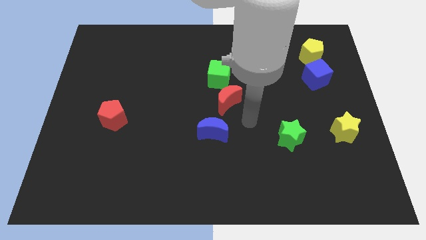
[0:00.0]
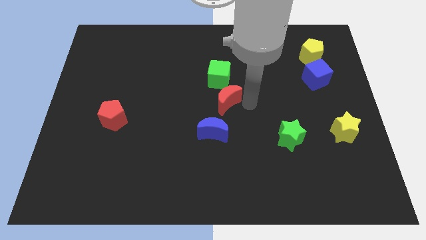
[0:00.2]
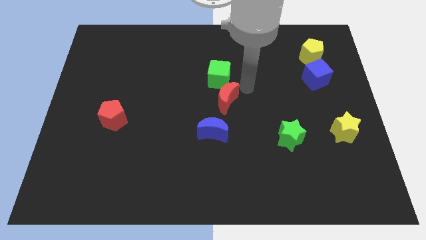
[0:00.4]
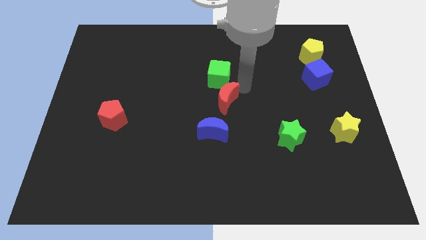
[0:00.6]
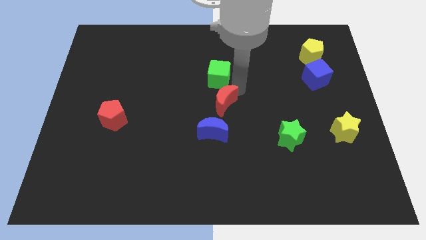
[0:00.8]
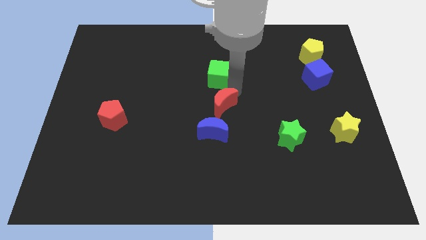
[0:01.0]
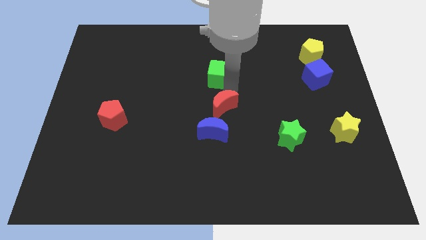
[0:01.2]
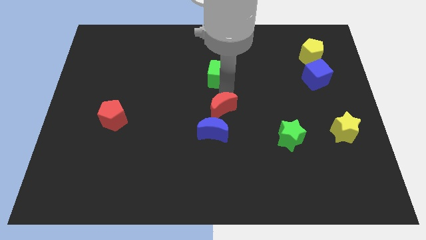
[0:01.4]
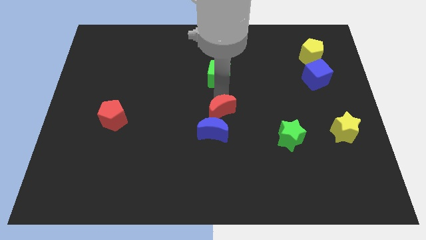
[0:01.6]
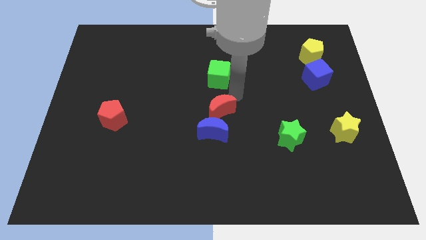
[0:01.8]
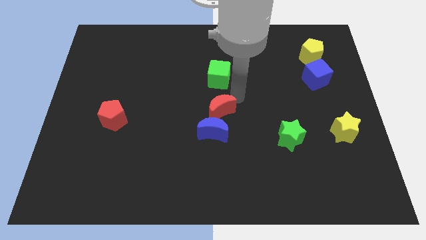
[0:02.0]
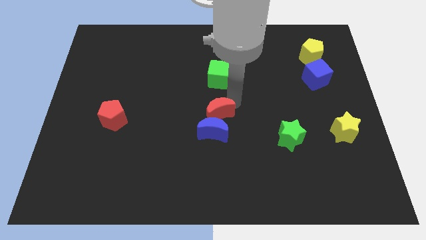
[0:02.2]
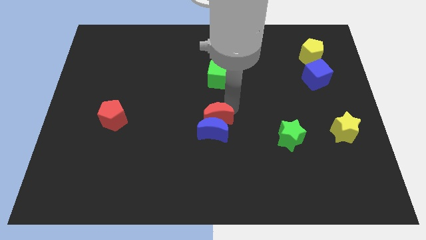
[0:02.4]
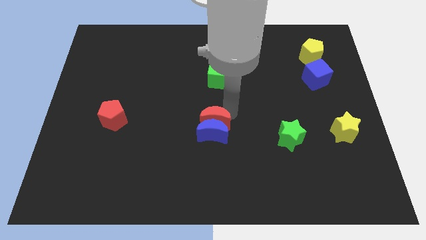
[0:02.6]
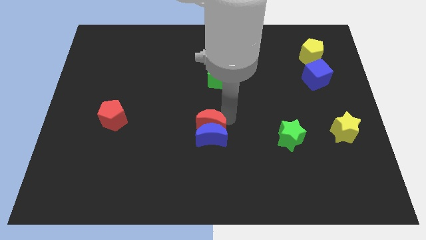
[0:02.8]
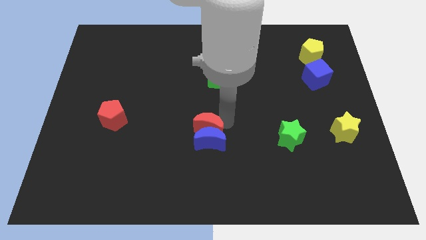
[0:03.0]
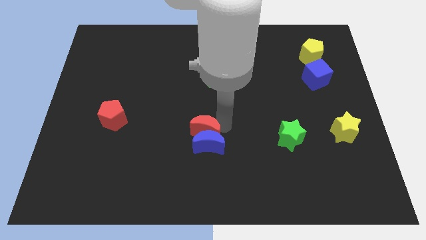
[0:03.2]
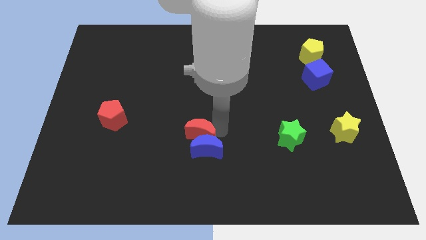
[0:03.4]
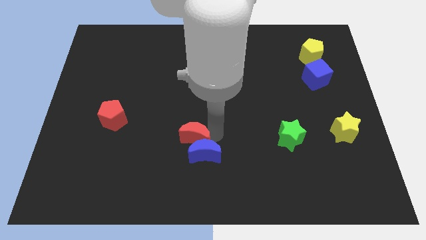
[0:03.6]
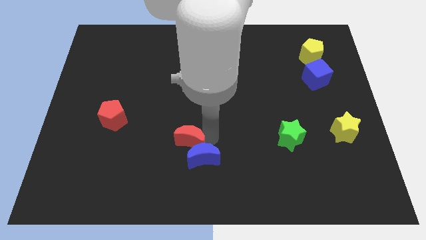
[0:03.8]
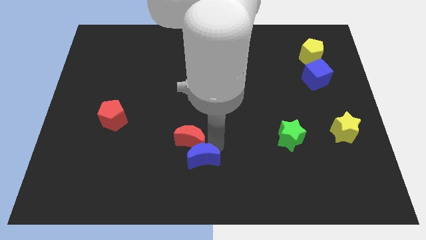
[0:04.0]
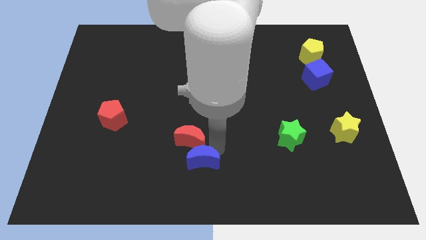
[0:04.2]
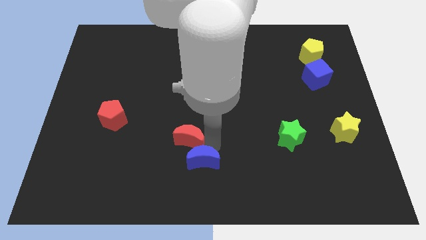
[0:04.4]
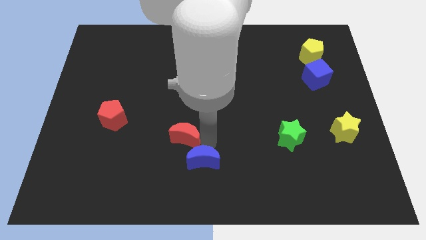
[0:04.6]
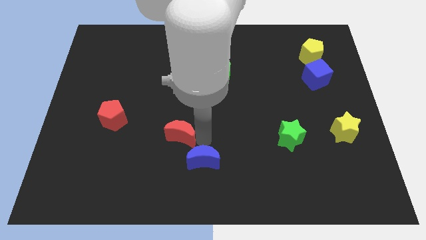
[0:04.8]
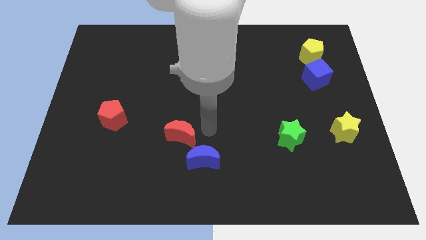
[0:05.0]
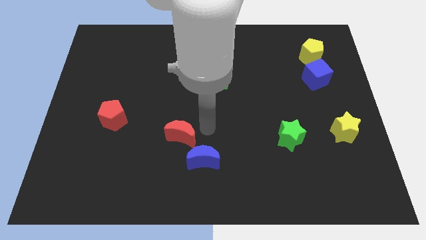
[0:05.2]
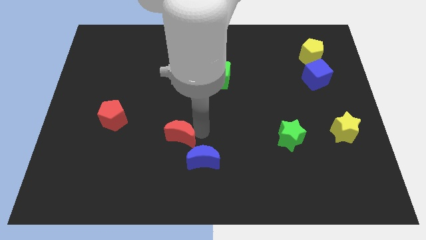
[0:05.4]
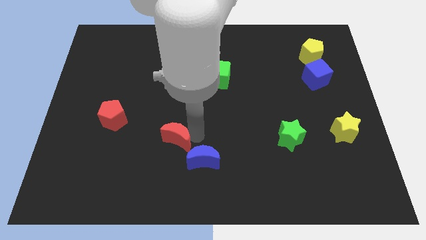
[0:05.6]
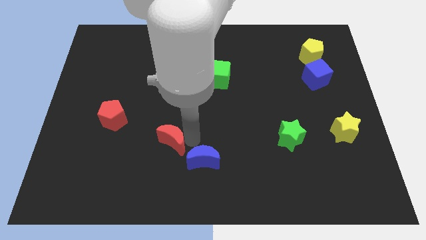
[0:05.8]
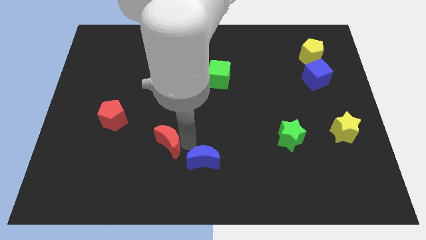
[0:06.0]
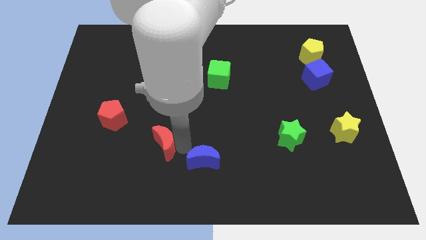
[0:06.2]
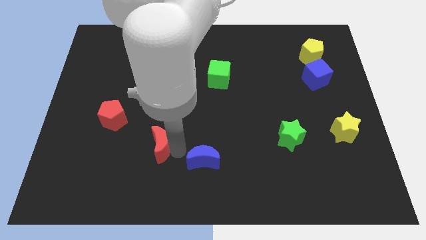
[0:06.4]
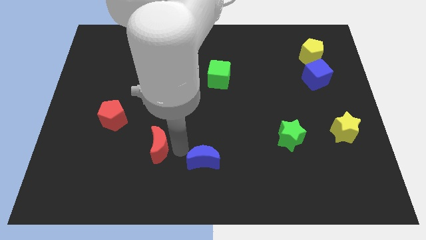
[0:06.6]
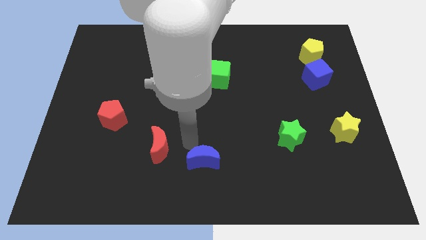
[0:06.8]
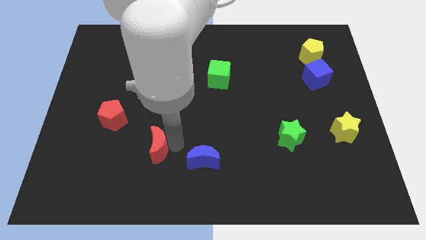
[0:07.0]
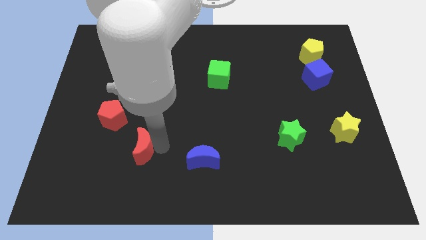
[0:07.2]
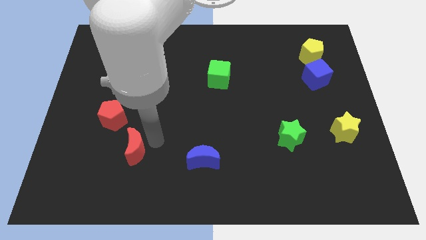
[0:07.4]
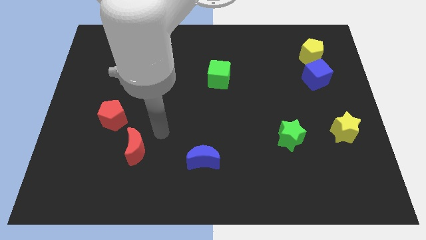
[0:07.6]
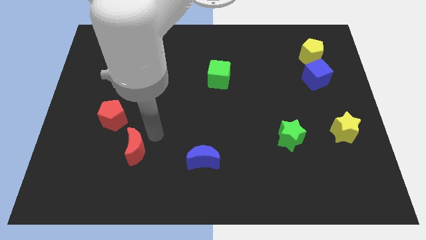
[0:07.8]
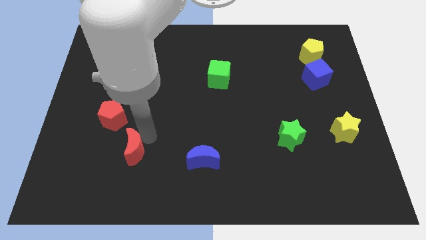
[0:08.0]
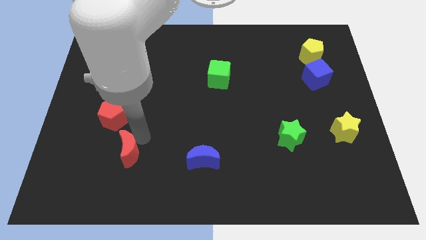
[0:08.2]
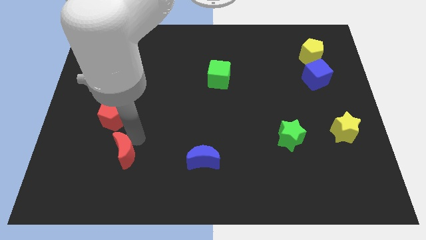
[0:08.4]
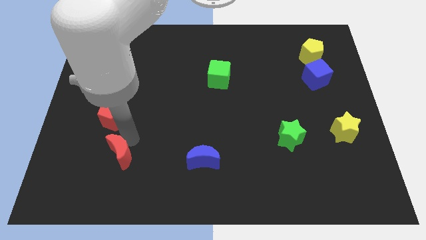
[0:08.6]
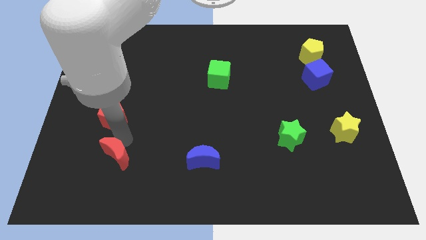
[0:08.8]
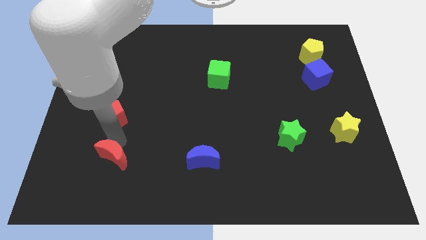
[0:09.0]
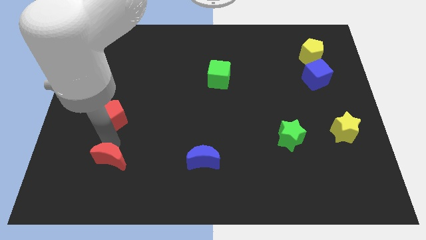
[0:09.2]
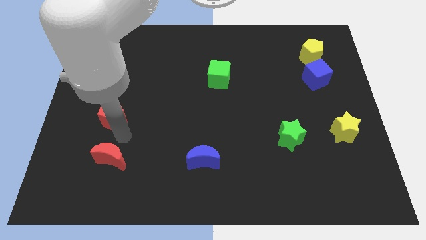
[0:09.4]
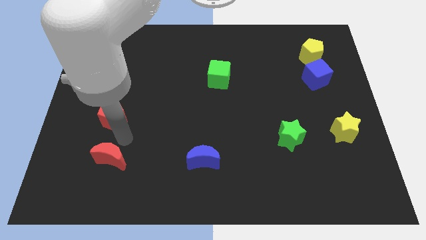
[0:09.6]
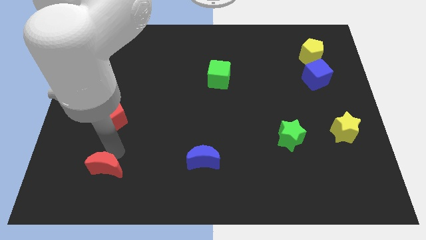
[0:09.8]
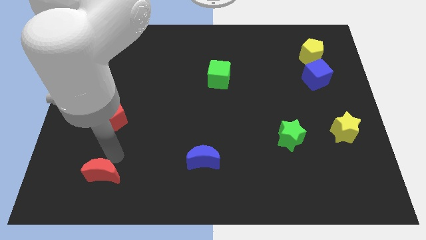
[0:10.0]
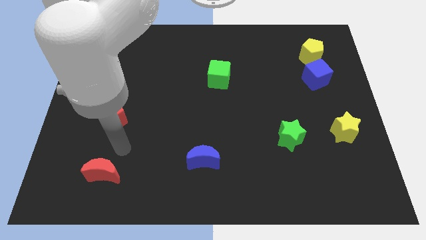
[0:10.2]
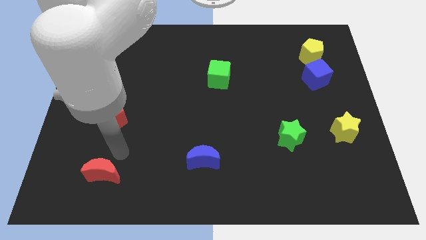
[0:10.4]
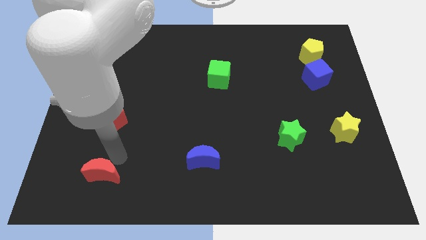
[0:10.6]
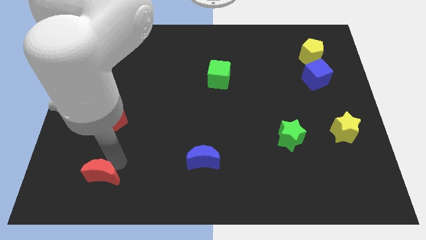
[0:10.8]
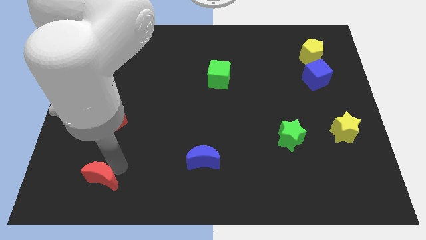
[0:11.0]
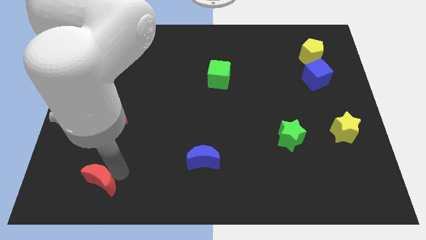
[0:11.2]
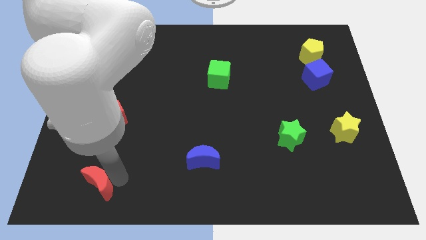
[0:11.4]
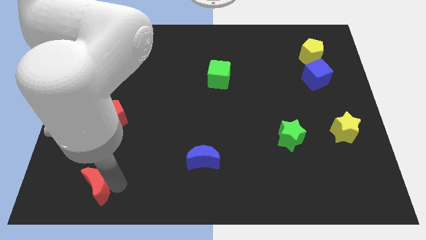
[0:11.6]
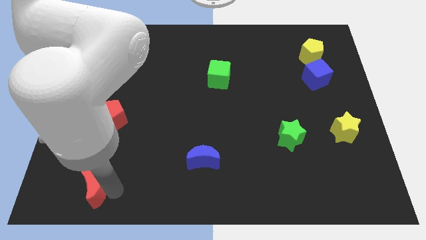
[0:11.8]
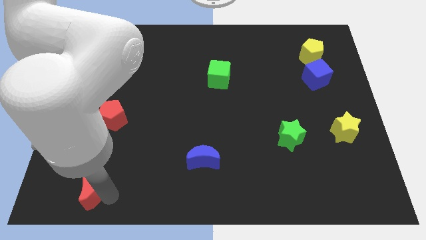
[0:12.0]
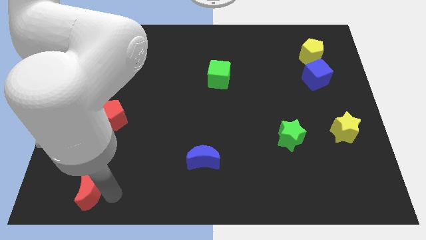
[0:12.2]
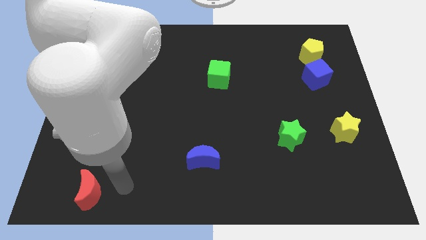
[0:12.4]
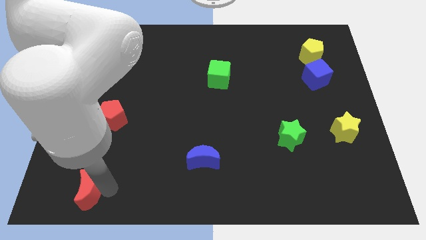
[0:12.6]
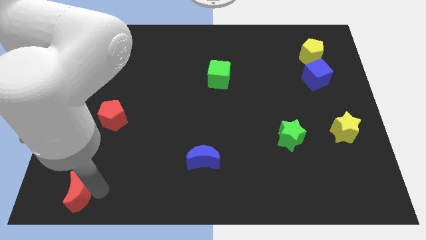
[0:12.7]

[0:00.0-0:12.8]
push the red moon to the bottom left of the board
